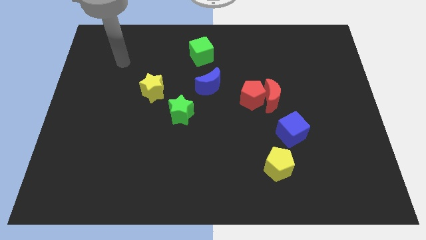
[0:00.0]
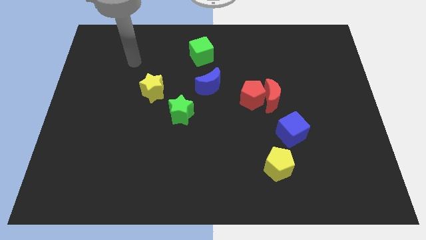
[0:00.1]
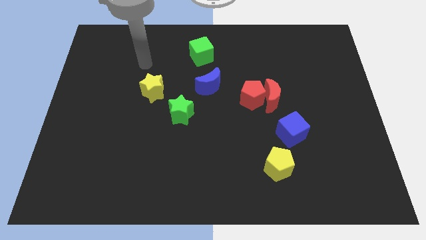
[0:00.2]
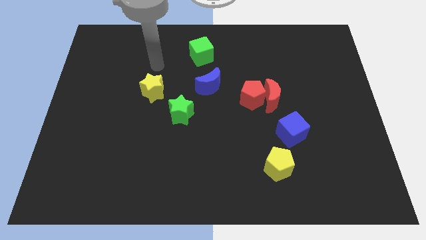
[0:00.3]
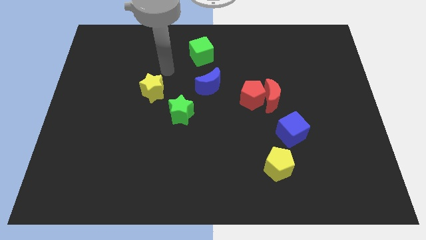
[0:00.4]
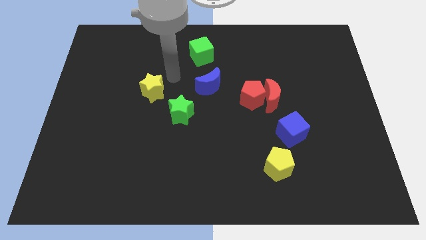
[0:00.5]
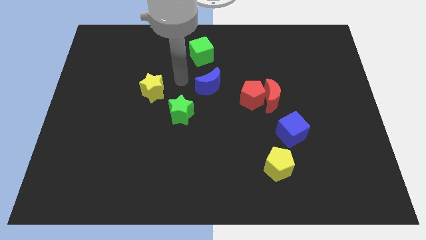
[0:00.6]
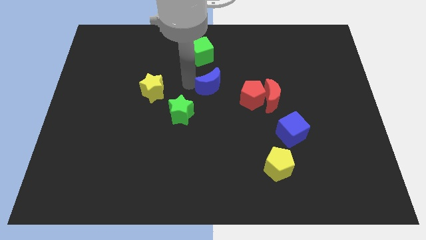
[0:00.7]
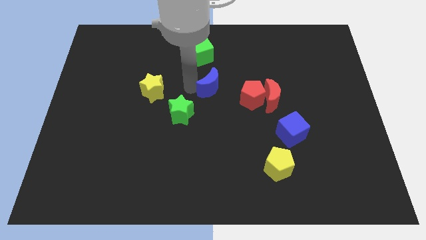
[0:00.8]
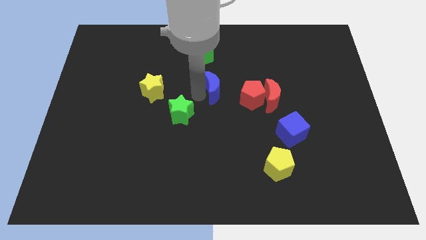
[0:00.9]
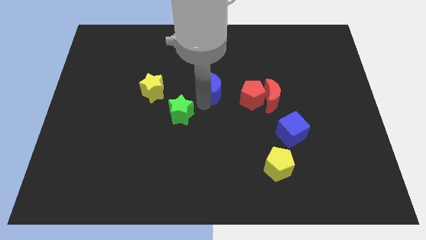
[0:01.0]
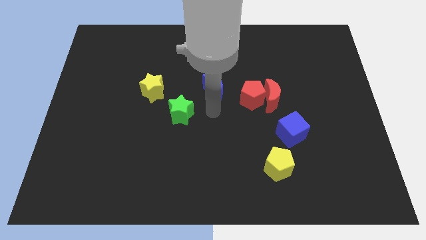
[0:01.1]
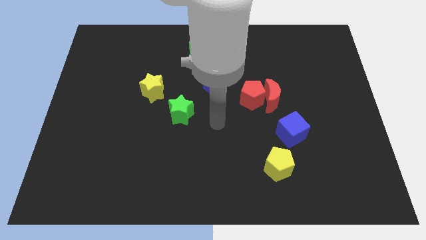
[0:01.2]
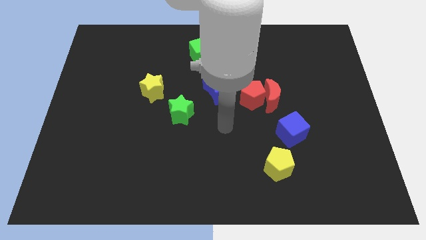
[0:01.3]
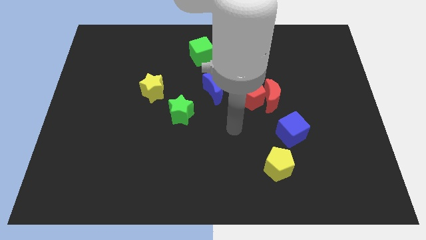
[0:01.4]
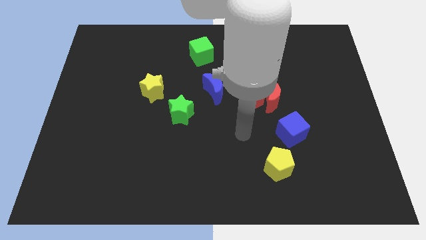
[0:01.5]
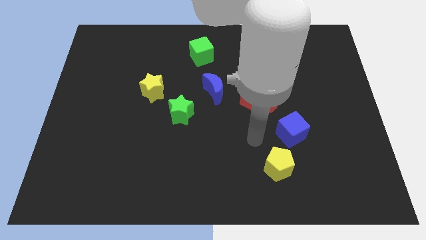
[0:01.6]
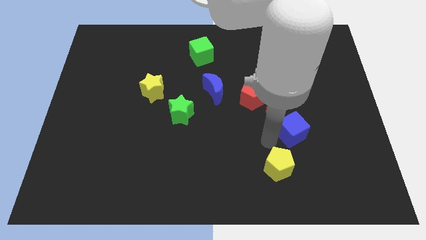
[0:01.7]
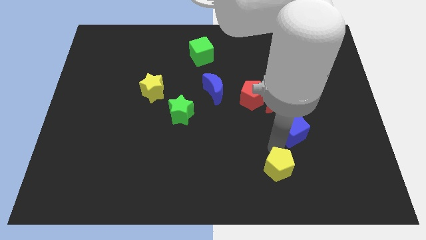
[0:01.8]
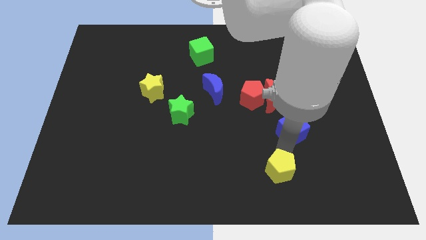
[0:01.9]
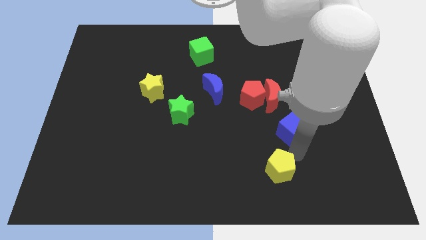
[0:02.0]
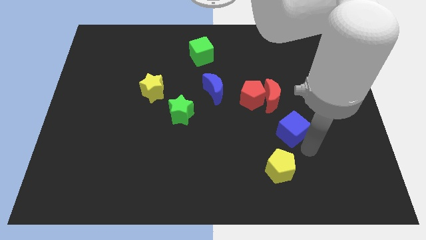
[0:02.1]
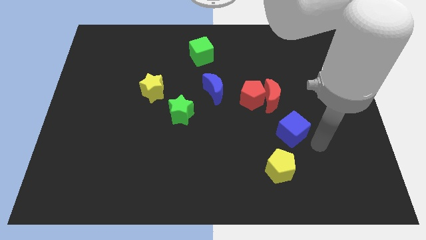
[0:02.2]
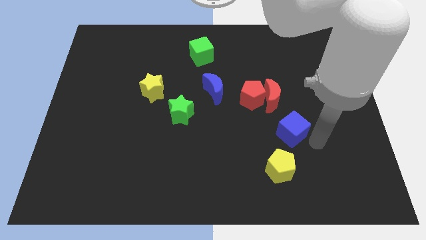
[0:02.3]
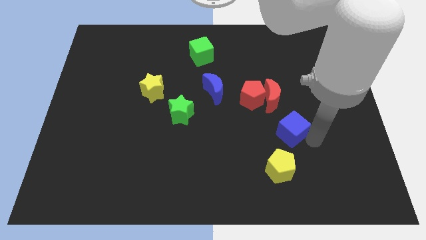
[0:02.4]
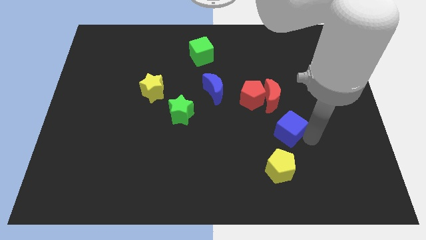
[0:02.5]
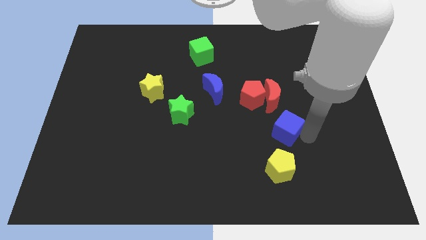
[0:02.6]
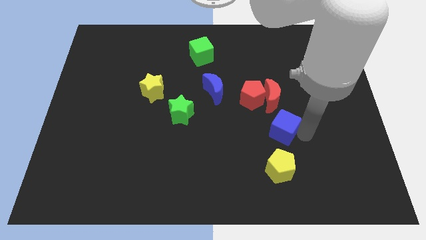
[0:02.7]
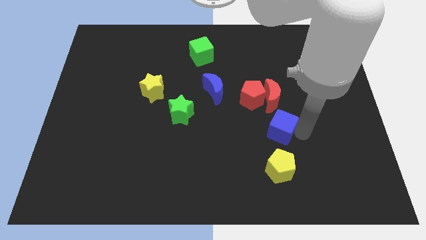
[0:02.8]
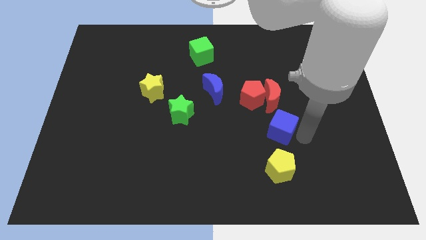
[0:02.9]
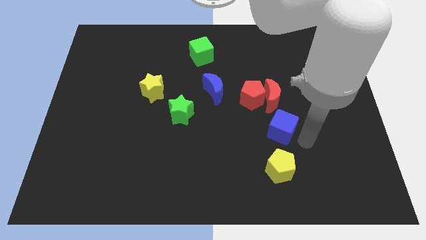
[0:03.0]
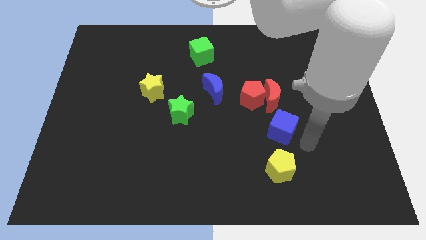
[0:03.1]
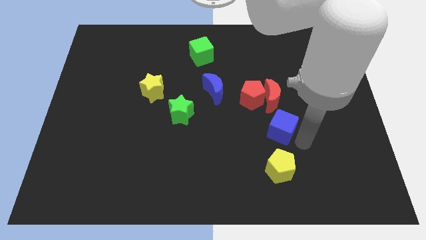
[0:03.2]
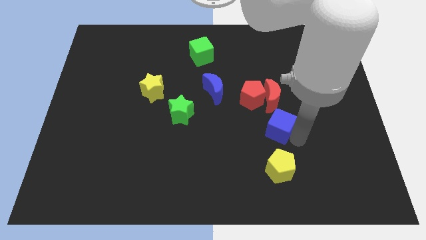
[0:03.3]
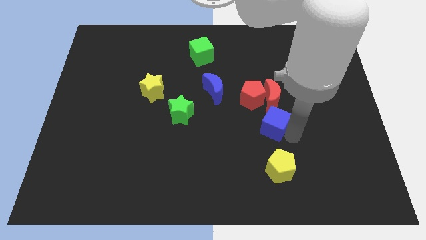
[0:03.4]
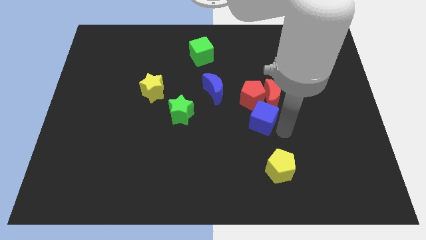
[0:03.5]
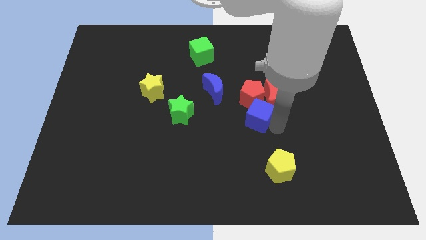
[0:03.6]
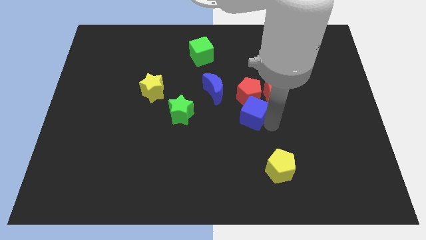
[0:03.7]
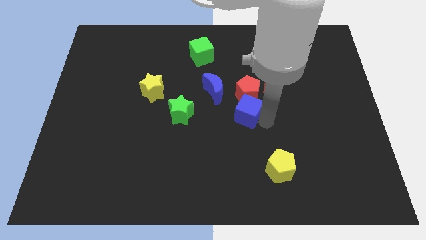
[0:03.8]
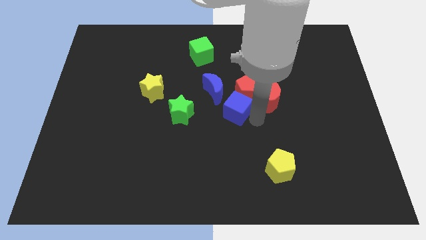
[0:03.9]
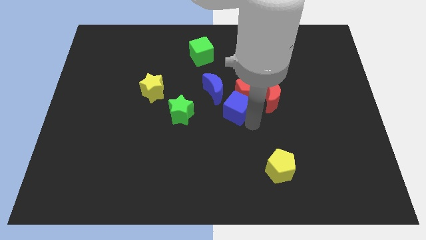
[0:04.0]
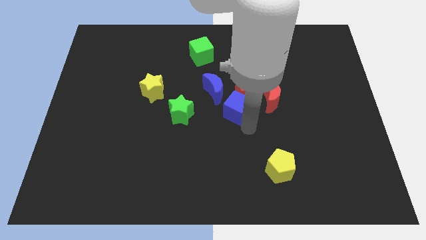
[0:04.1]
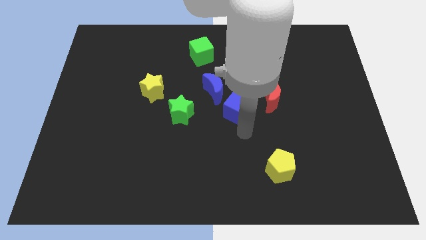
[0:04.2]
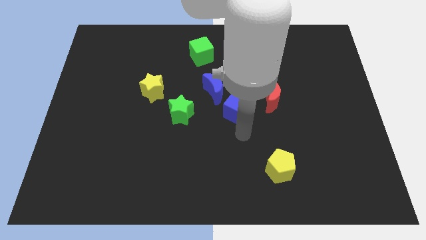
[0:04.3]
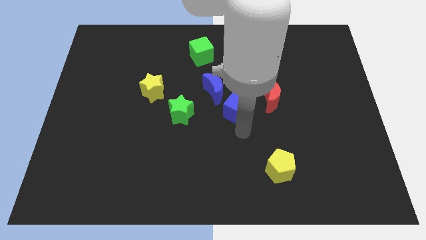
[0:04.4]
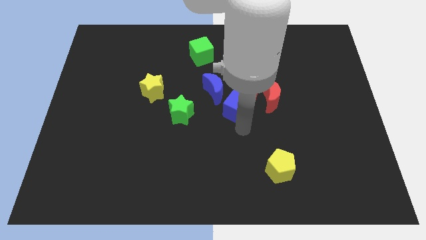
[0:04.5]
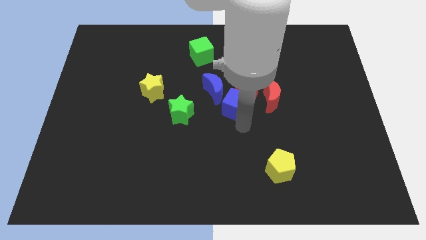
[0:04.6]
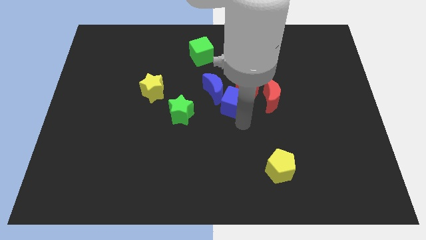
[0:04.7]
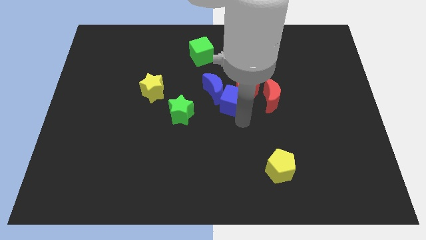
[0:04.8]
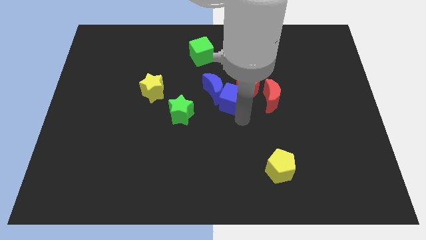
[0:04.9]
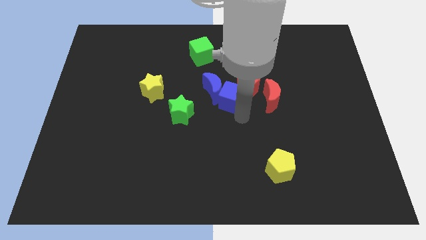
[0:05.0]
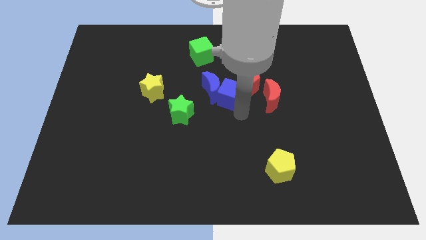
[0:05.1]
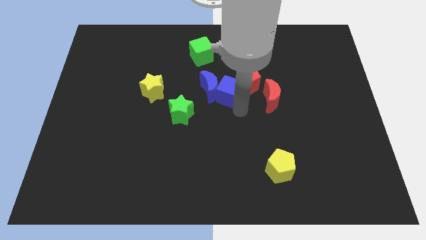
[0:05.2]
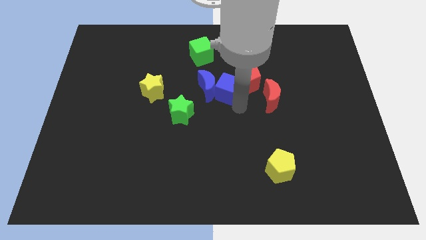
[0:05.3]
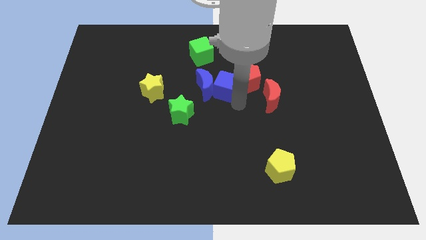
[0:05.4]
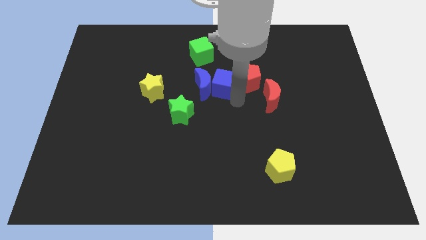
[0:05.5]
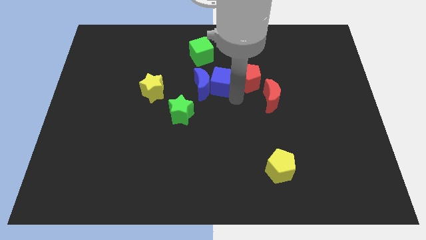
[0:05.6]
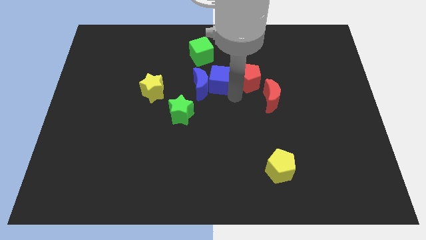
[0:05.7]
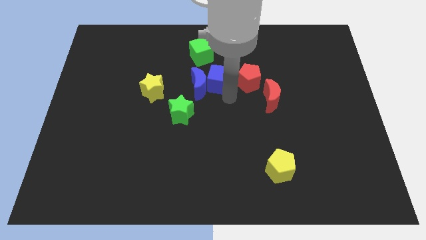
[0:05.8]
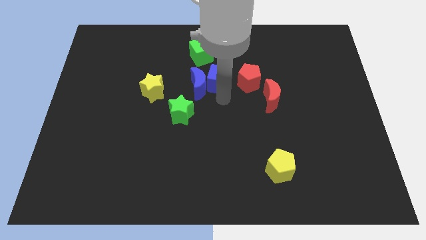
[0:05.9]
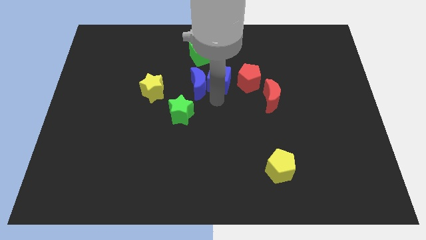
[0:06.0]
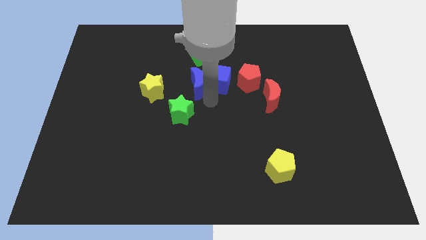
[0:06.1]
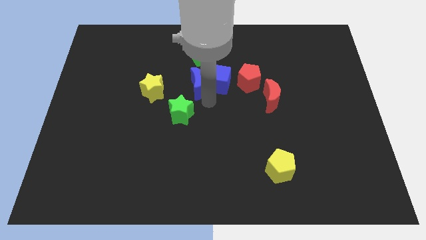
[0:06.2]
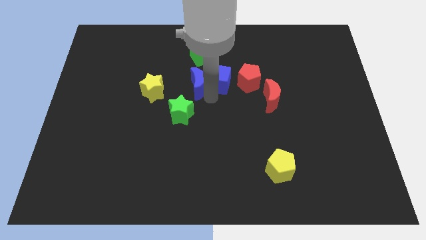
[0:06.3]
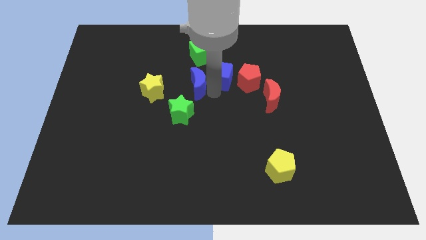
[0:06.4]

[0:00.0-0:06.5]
move the blue cube to the top left of the red pentagon

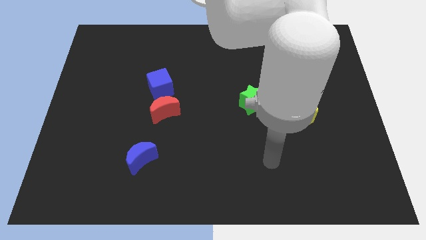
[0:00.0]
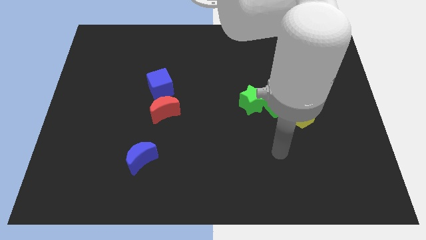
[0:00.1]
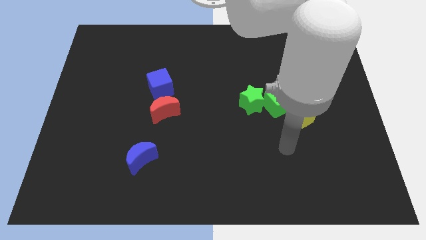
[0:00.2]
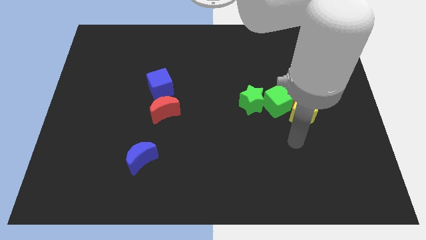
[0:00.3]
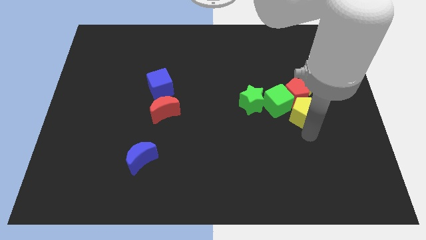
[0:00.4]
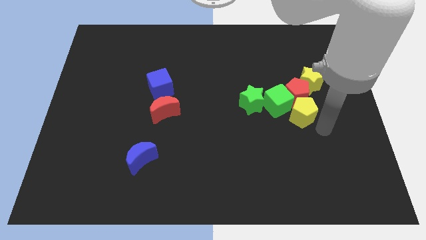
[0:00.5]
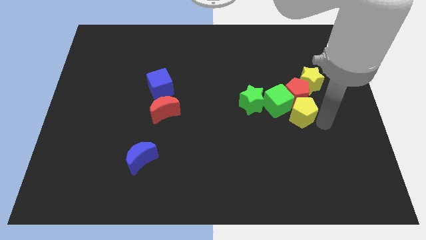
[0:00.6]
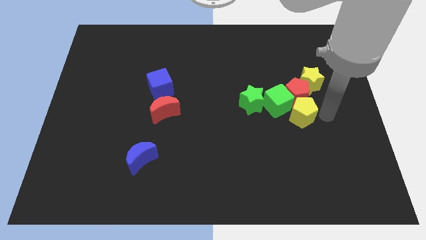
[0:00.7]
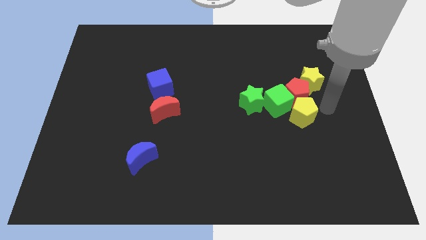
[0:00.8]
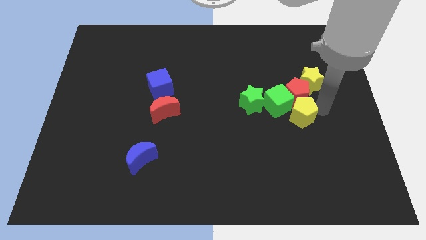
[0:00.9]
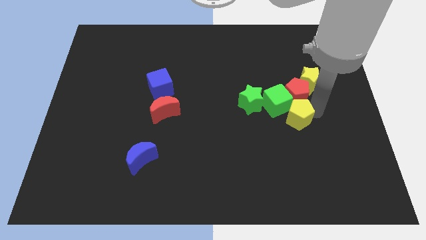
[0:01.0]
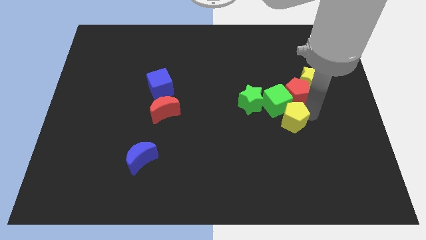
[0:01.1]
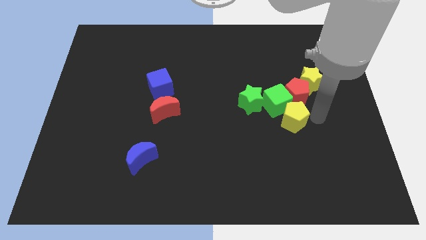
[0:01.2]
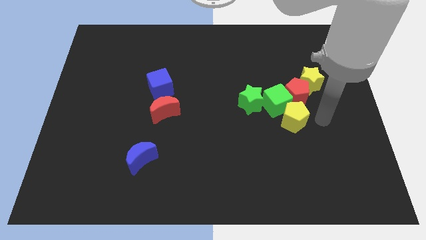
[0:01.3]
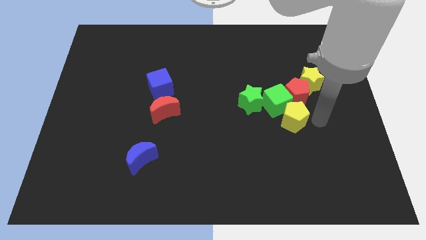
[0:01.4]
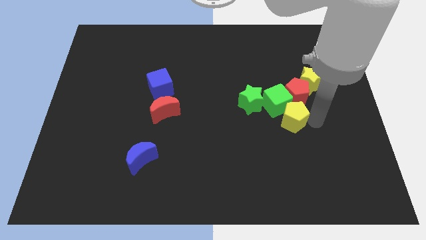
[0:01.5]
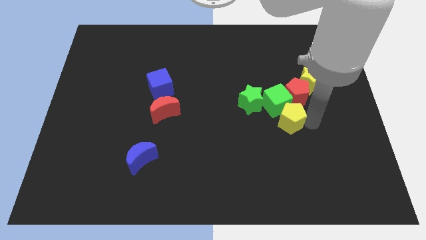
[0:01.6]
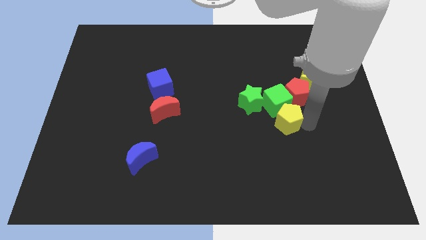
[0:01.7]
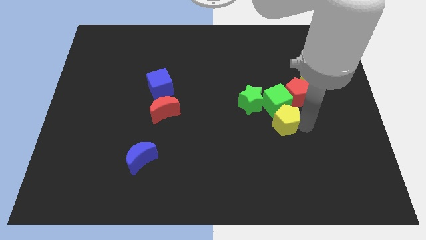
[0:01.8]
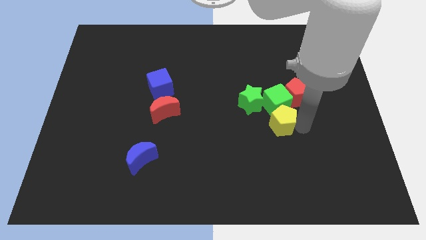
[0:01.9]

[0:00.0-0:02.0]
slide the yellow pentagon to the bottom left of the green cube
